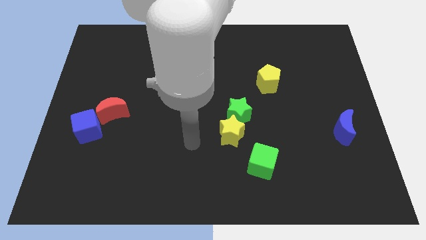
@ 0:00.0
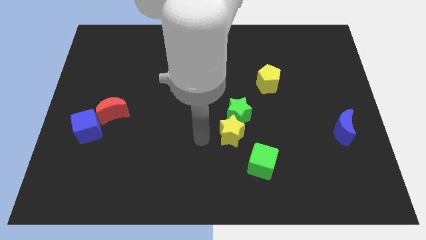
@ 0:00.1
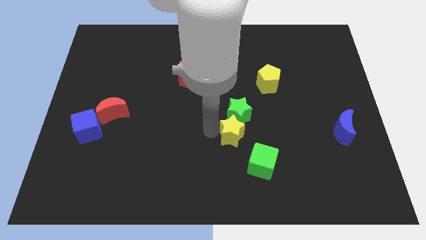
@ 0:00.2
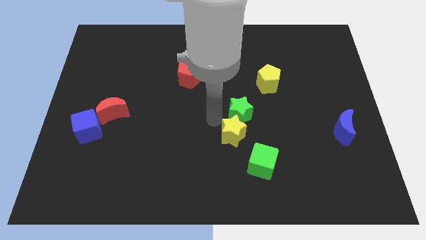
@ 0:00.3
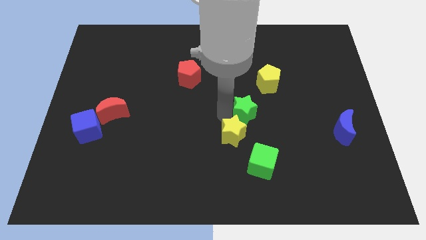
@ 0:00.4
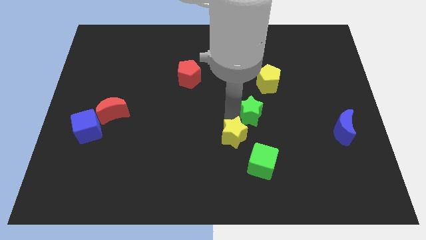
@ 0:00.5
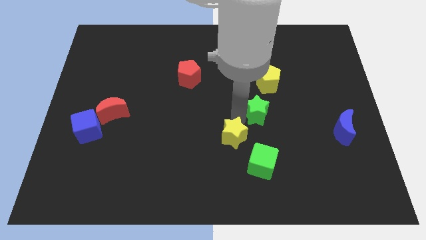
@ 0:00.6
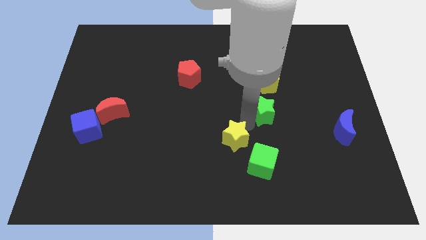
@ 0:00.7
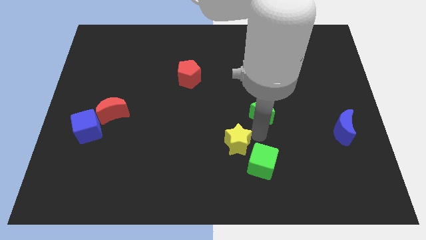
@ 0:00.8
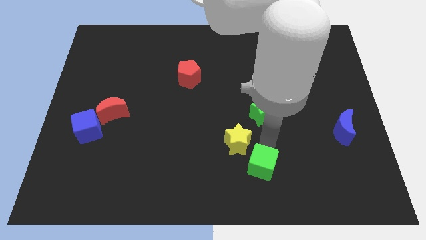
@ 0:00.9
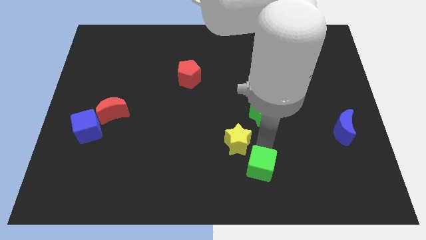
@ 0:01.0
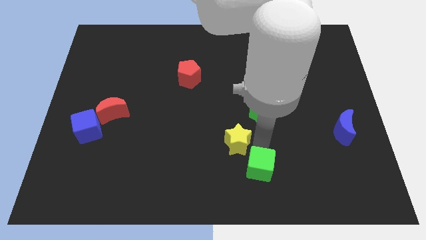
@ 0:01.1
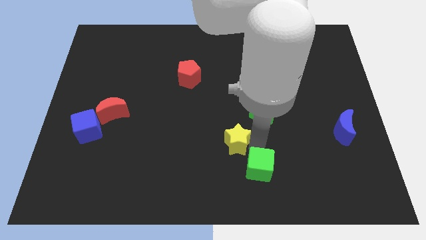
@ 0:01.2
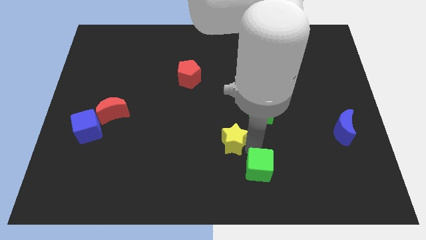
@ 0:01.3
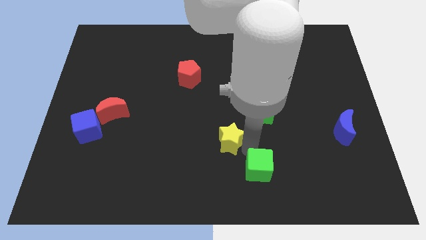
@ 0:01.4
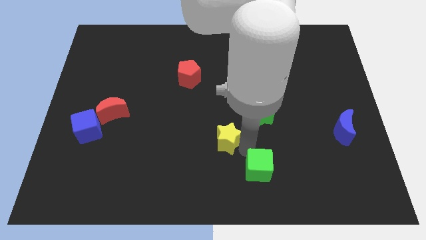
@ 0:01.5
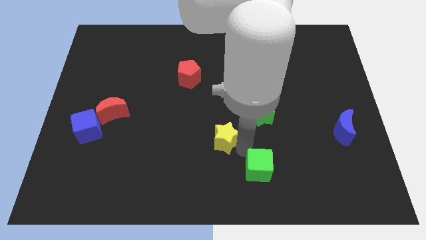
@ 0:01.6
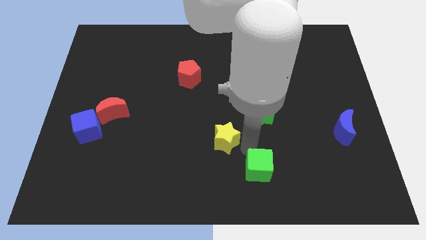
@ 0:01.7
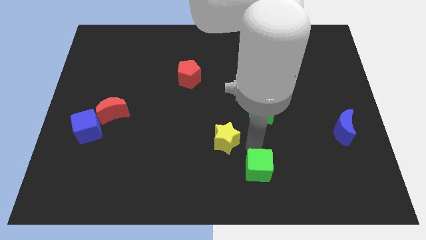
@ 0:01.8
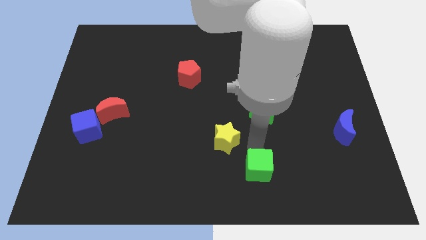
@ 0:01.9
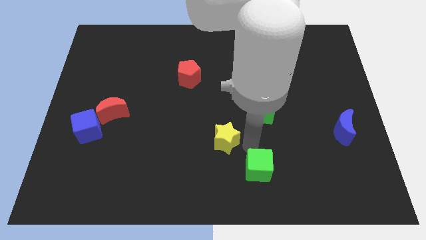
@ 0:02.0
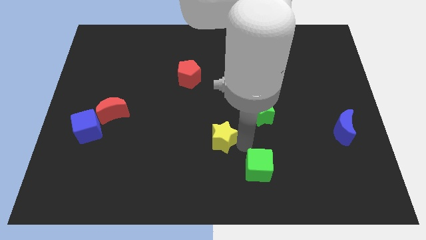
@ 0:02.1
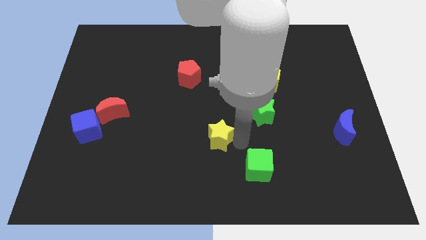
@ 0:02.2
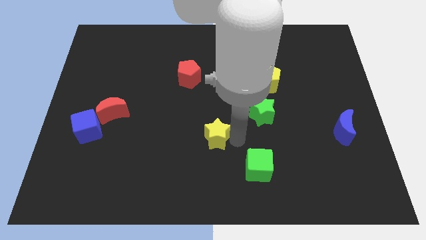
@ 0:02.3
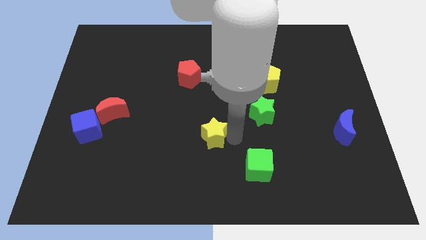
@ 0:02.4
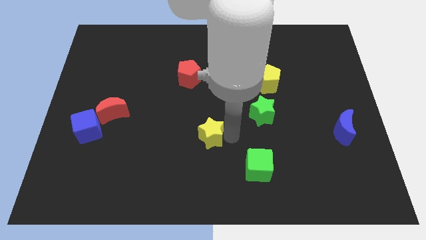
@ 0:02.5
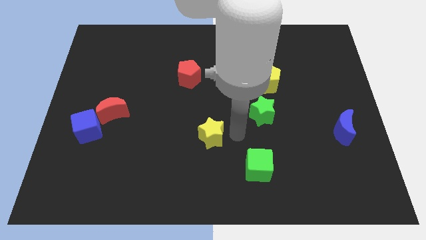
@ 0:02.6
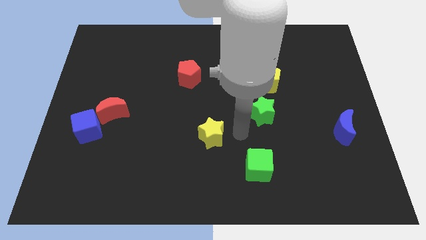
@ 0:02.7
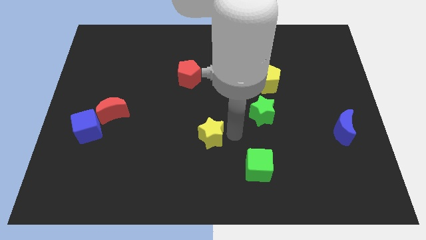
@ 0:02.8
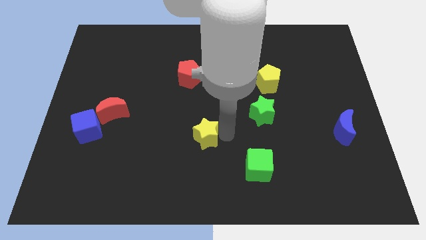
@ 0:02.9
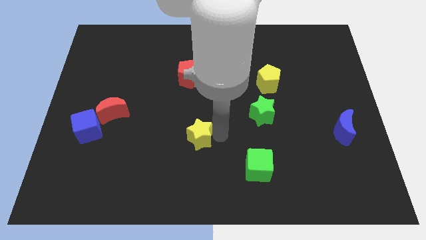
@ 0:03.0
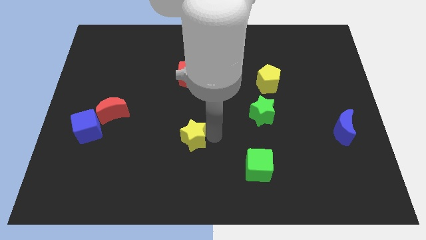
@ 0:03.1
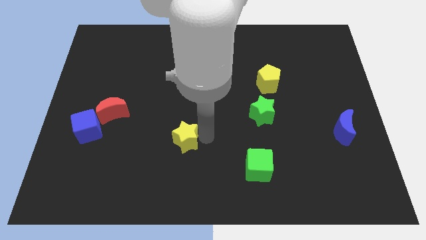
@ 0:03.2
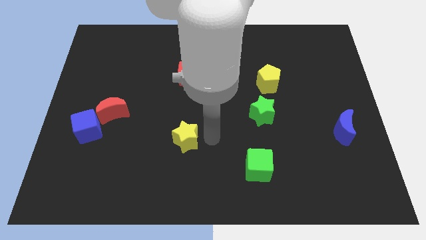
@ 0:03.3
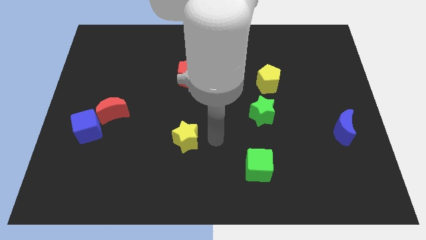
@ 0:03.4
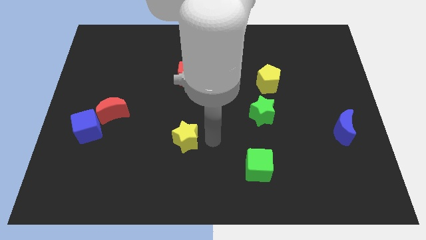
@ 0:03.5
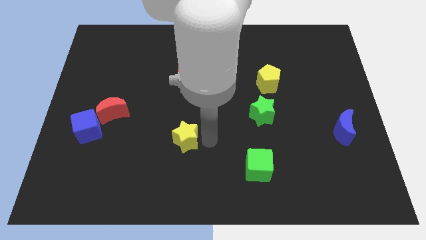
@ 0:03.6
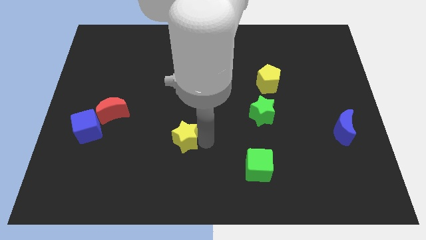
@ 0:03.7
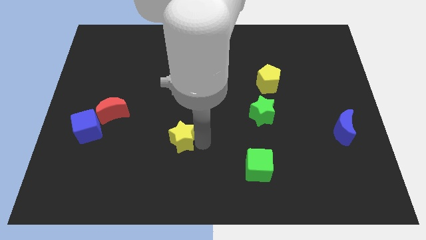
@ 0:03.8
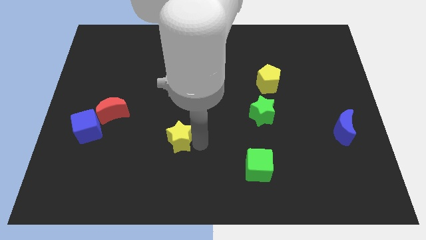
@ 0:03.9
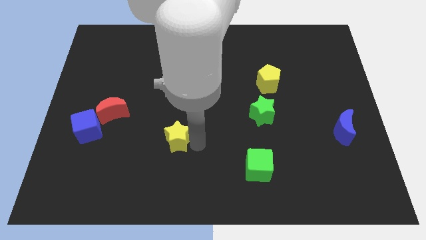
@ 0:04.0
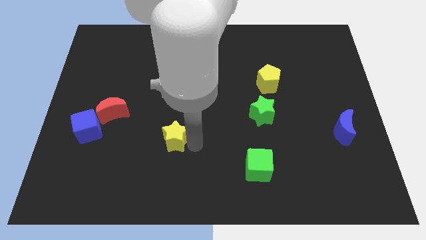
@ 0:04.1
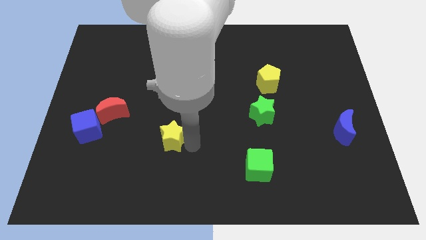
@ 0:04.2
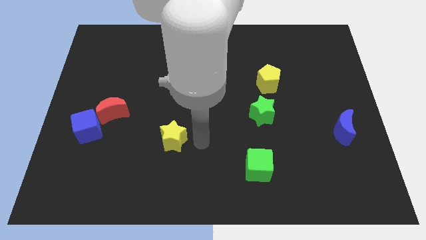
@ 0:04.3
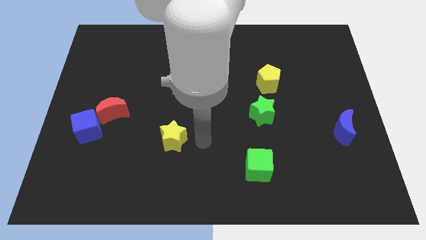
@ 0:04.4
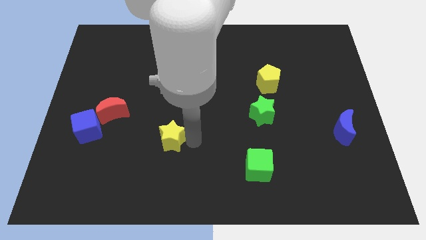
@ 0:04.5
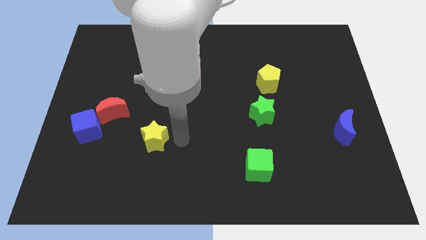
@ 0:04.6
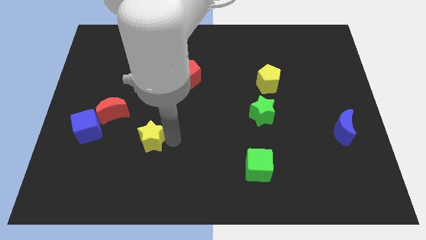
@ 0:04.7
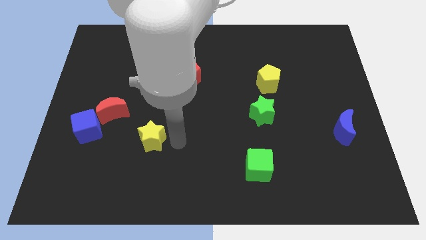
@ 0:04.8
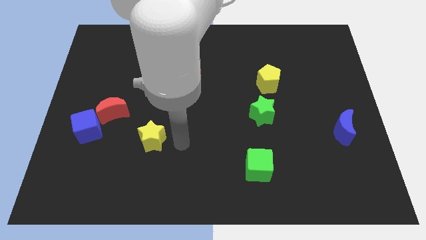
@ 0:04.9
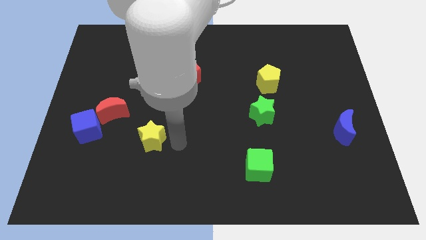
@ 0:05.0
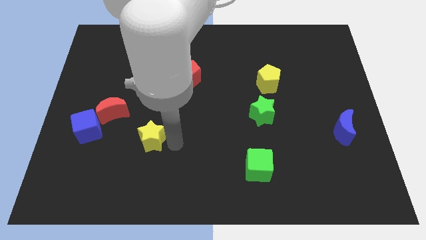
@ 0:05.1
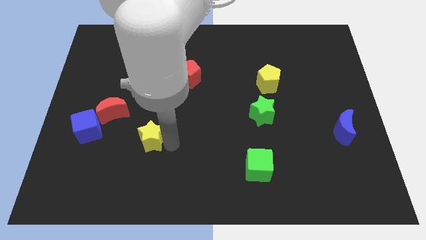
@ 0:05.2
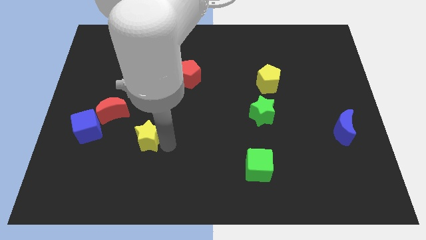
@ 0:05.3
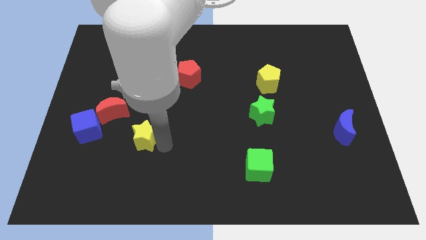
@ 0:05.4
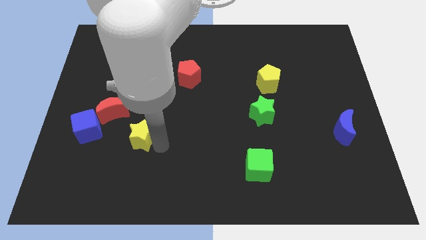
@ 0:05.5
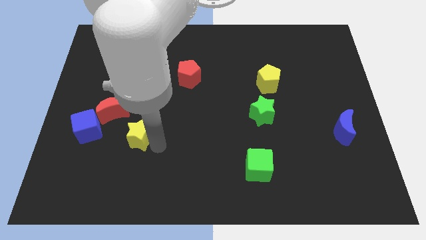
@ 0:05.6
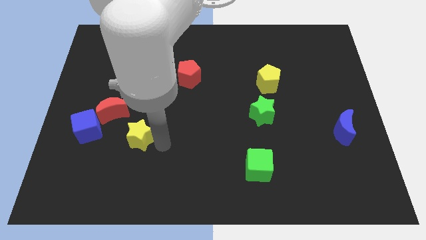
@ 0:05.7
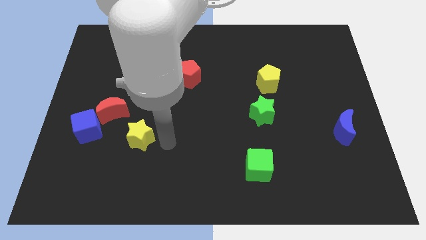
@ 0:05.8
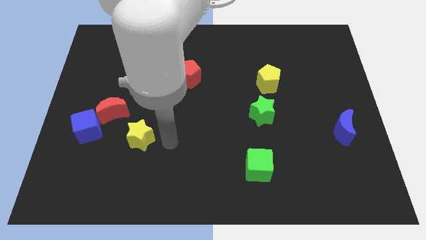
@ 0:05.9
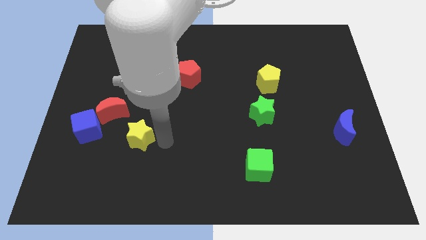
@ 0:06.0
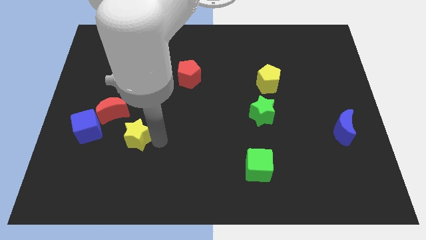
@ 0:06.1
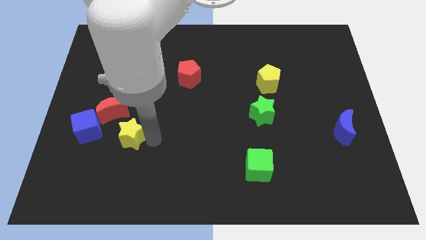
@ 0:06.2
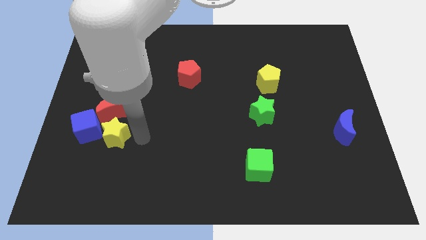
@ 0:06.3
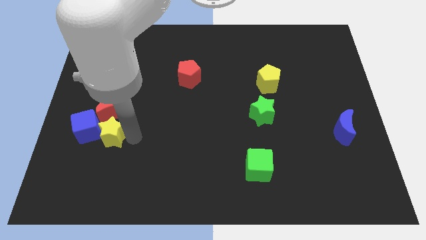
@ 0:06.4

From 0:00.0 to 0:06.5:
push the yellow star towards the blue cube

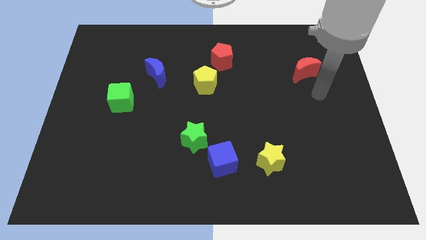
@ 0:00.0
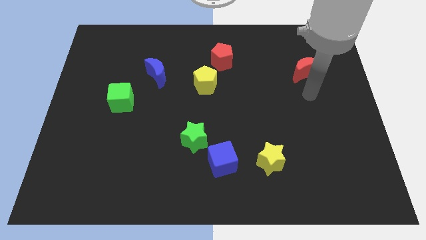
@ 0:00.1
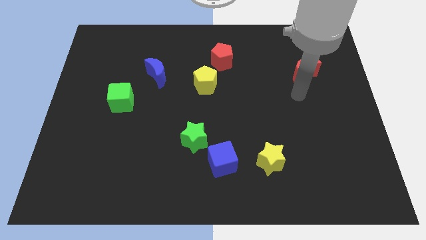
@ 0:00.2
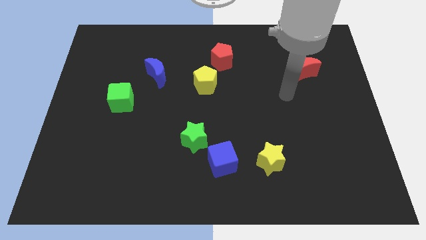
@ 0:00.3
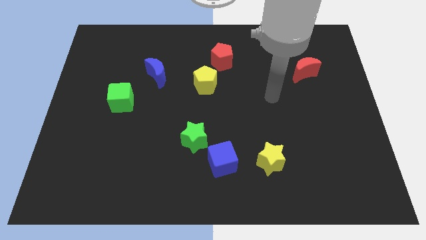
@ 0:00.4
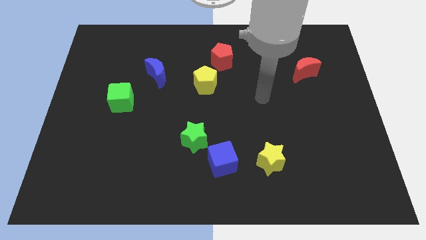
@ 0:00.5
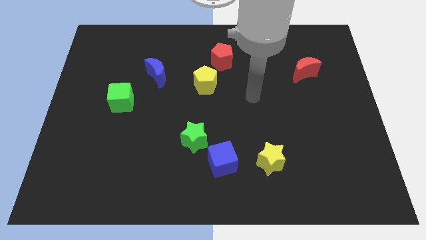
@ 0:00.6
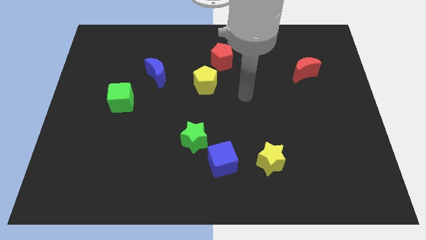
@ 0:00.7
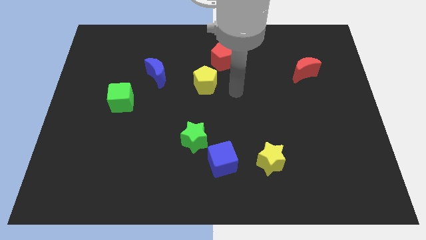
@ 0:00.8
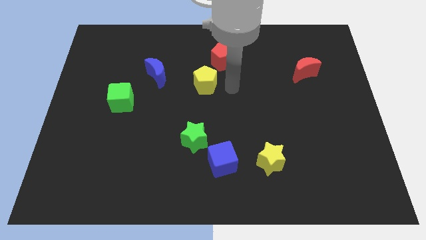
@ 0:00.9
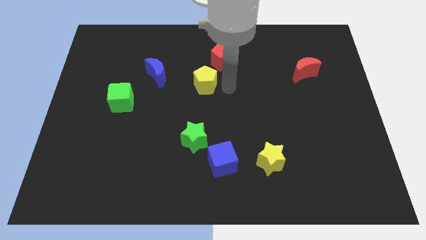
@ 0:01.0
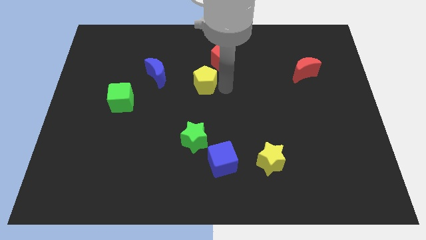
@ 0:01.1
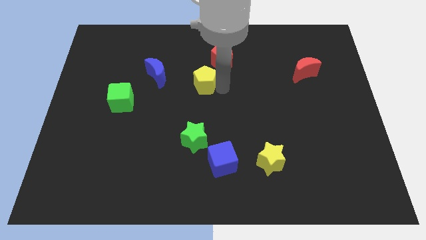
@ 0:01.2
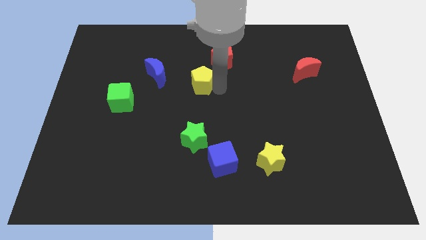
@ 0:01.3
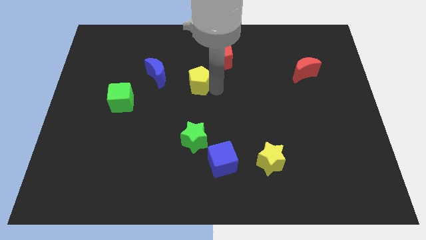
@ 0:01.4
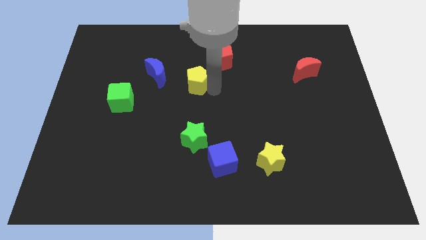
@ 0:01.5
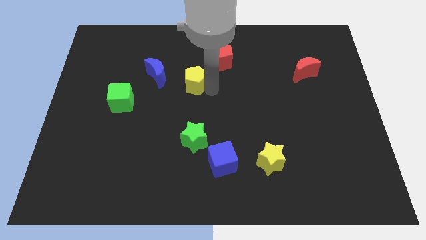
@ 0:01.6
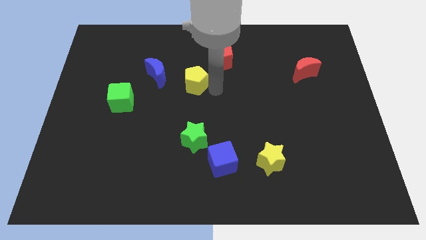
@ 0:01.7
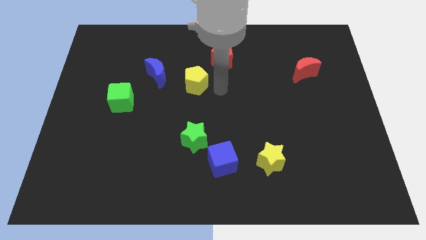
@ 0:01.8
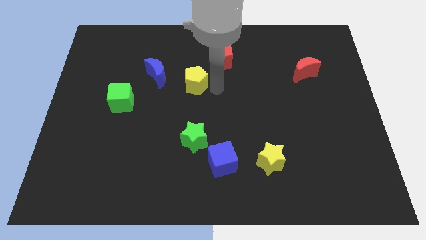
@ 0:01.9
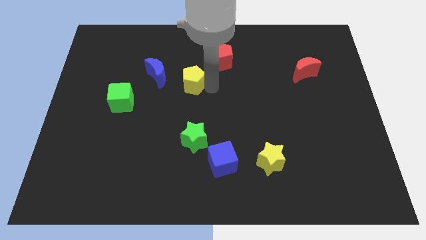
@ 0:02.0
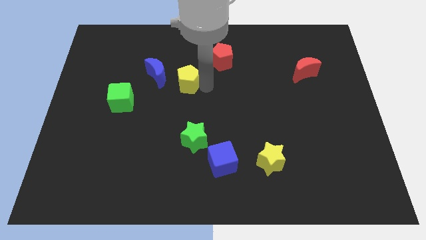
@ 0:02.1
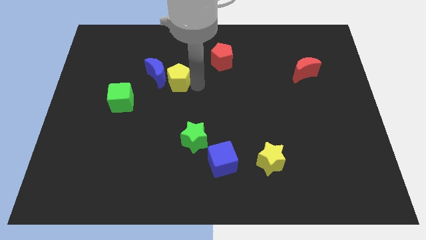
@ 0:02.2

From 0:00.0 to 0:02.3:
push the yellow pentagon close to the blue moon
